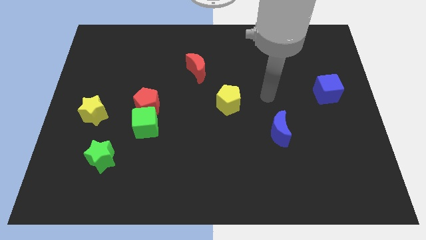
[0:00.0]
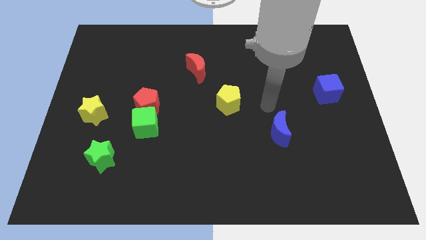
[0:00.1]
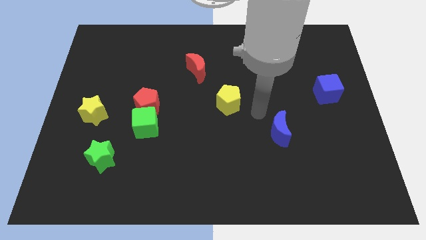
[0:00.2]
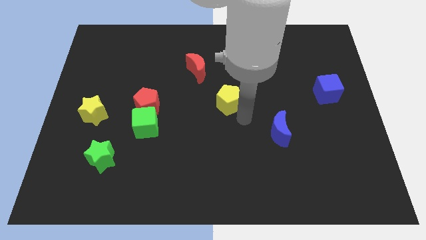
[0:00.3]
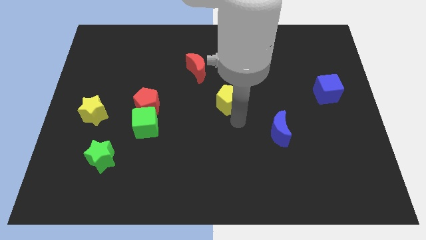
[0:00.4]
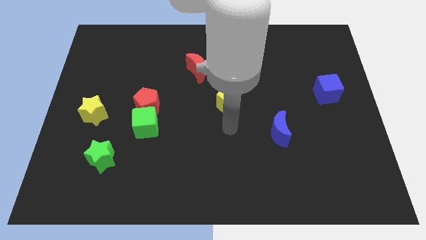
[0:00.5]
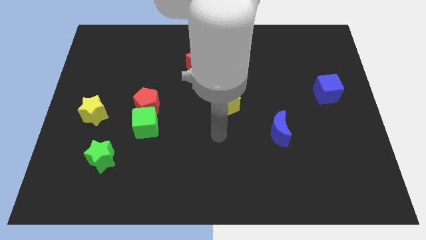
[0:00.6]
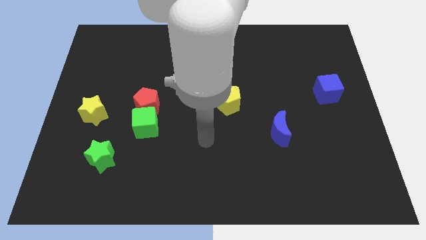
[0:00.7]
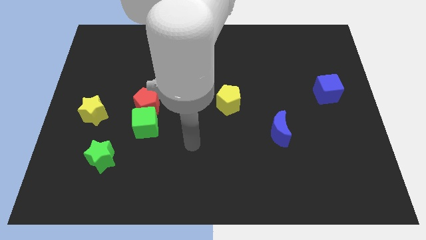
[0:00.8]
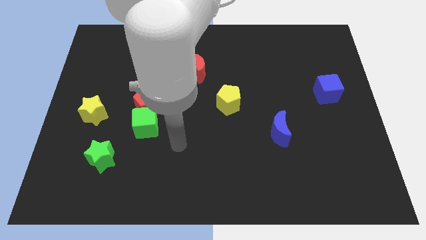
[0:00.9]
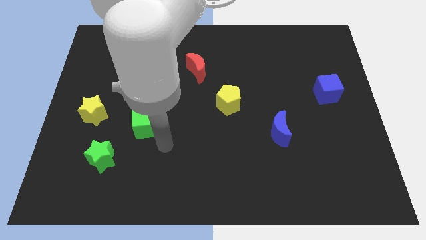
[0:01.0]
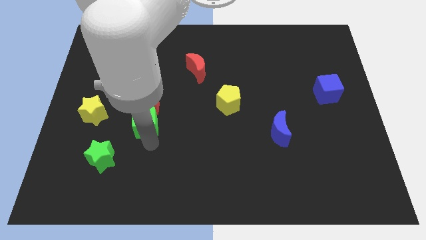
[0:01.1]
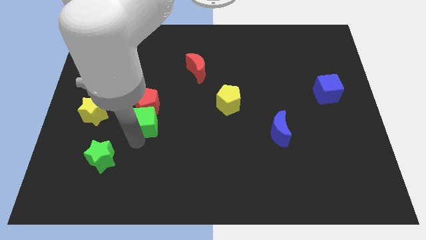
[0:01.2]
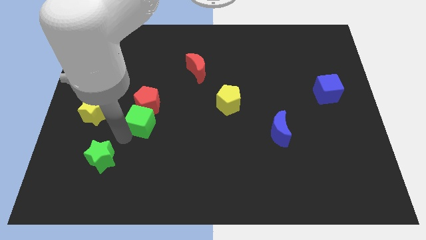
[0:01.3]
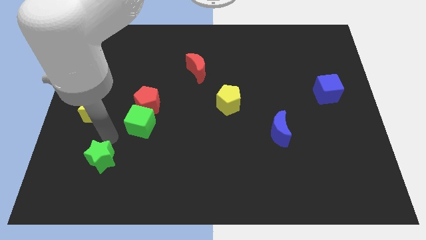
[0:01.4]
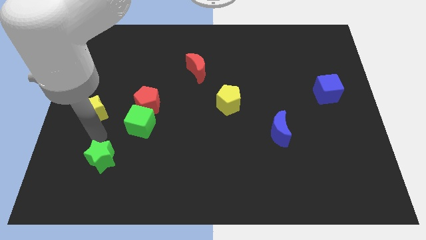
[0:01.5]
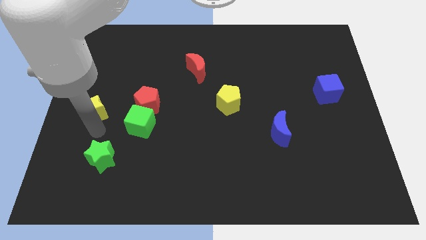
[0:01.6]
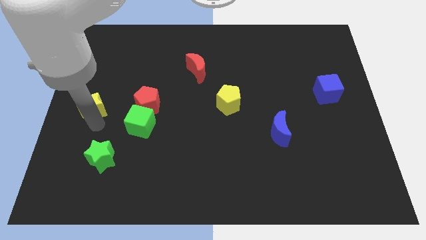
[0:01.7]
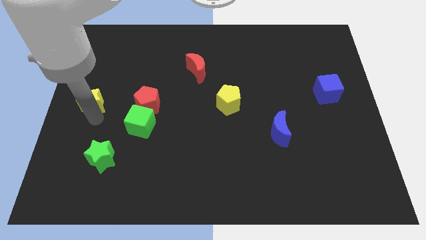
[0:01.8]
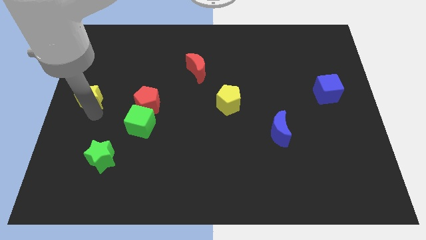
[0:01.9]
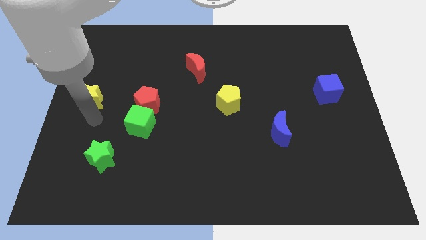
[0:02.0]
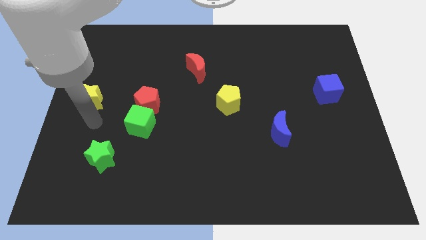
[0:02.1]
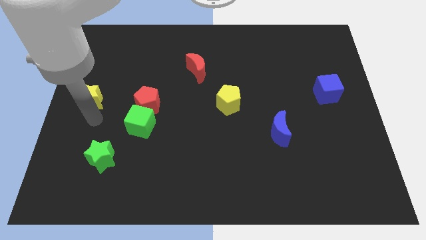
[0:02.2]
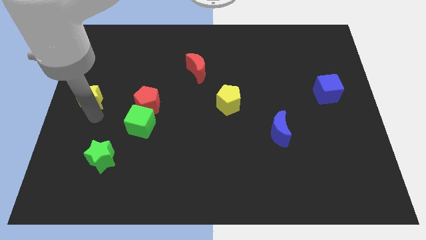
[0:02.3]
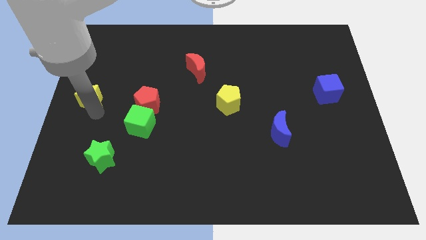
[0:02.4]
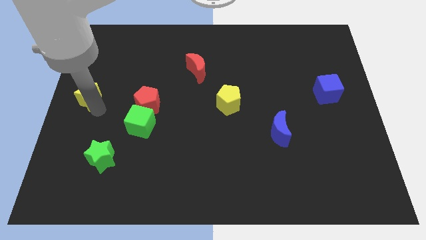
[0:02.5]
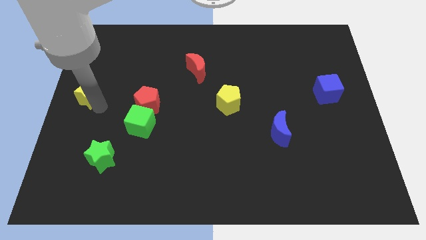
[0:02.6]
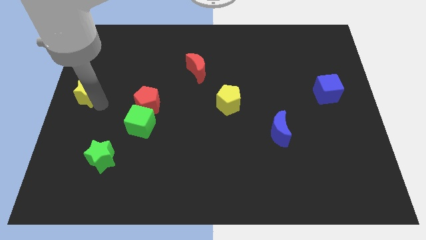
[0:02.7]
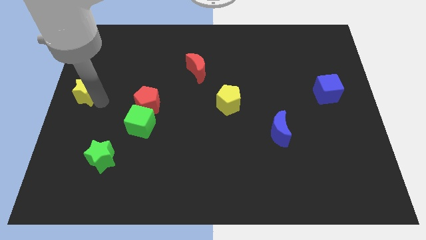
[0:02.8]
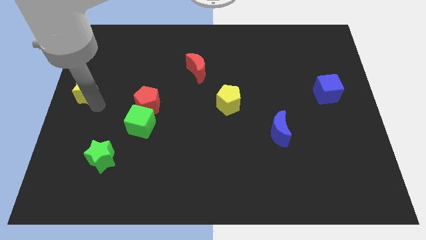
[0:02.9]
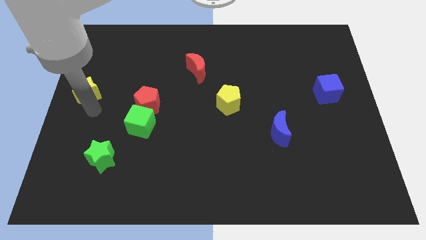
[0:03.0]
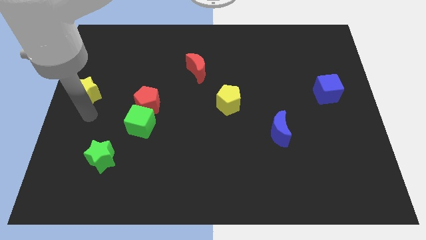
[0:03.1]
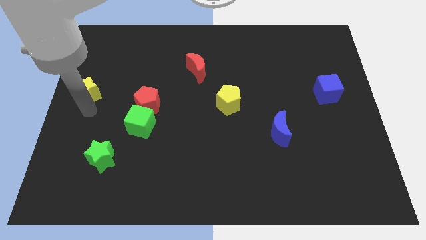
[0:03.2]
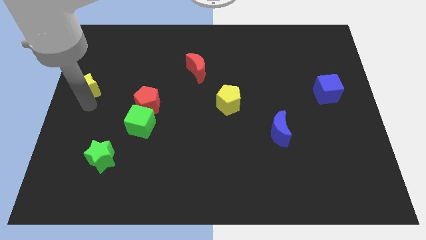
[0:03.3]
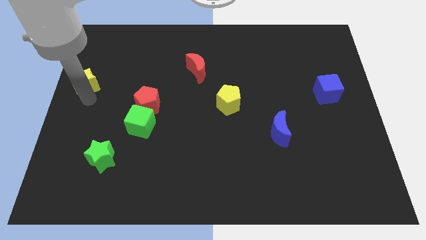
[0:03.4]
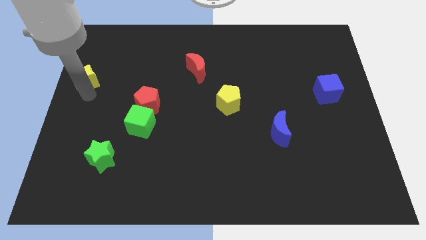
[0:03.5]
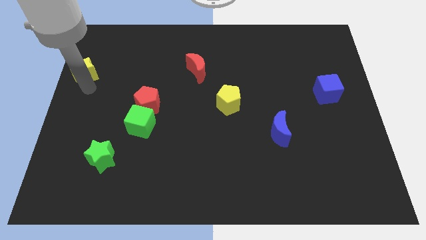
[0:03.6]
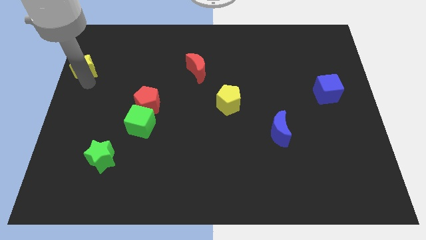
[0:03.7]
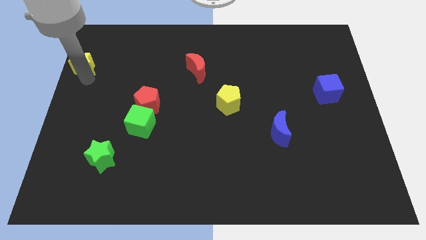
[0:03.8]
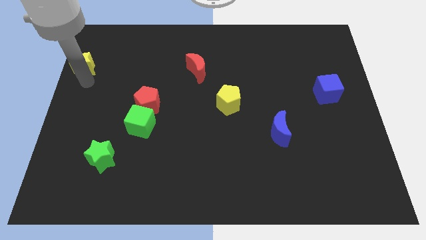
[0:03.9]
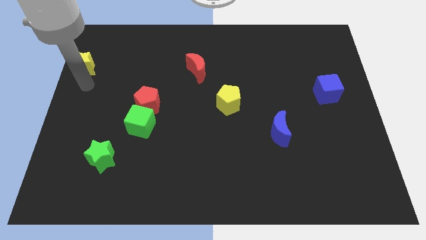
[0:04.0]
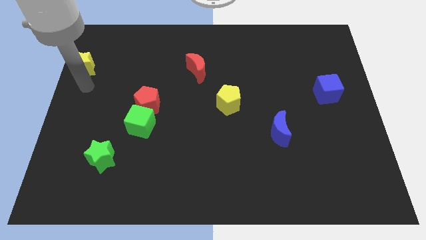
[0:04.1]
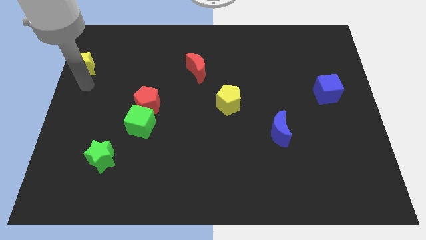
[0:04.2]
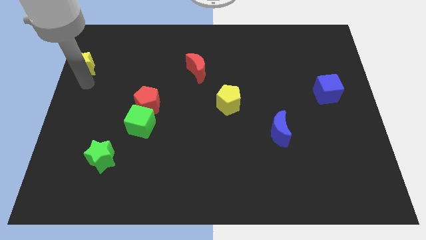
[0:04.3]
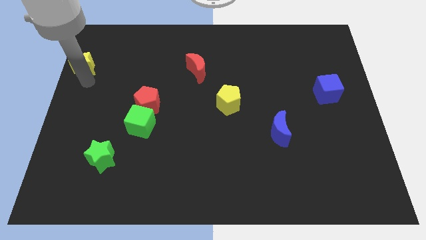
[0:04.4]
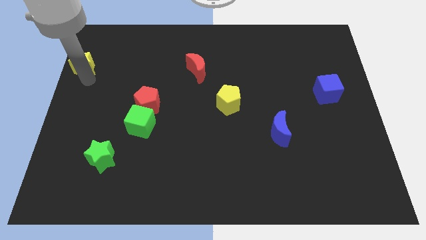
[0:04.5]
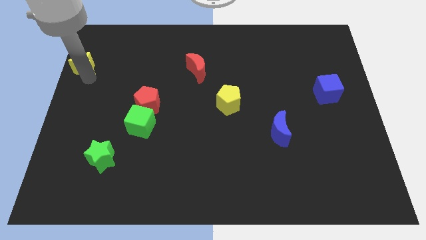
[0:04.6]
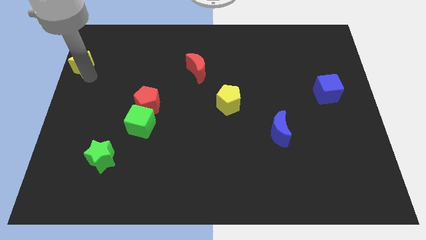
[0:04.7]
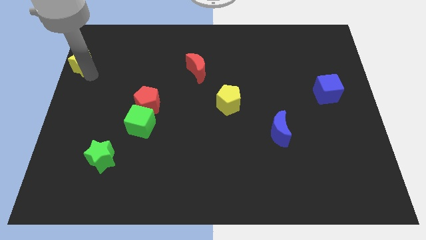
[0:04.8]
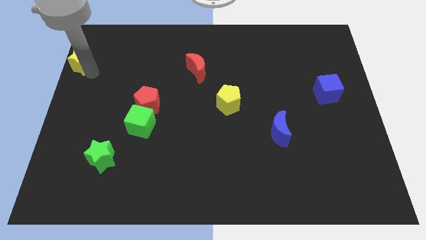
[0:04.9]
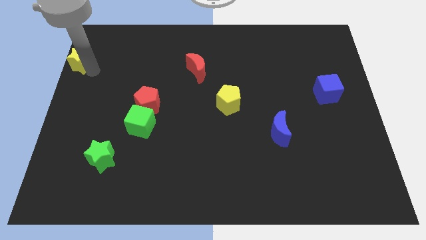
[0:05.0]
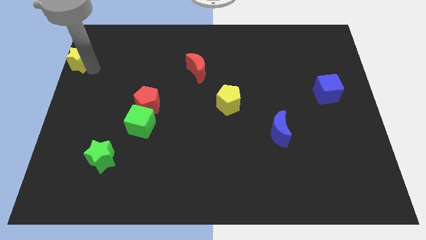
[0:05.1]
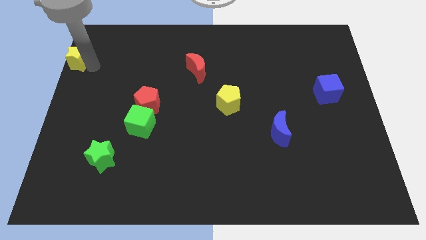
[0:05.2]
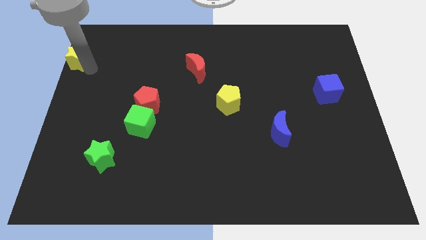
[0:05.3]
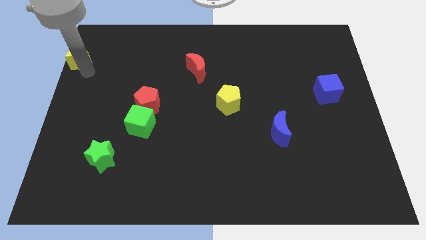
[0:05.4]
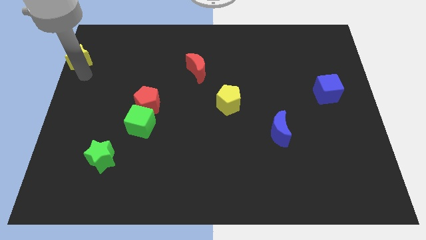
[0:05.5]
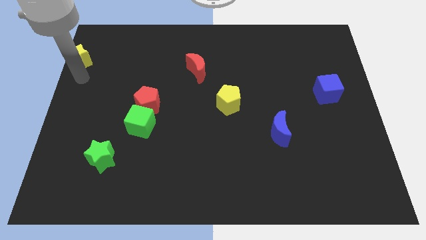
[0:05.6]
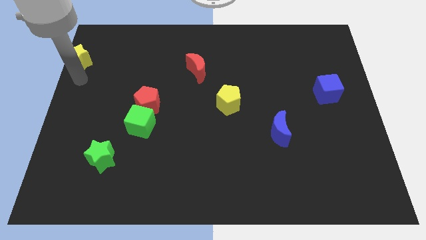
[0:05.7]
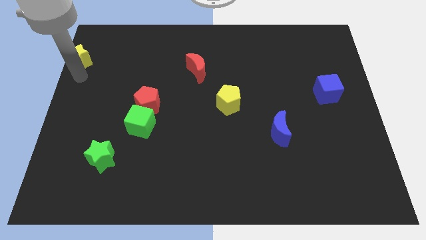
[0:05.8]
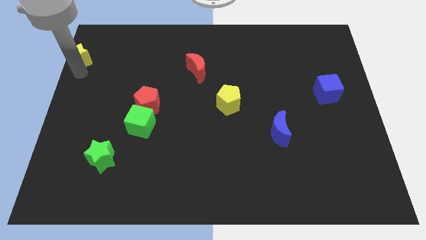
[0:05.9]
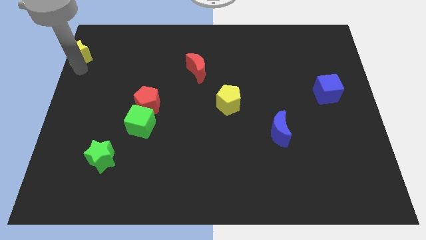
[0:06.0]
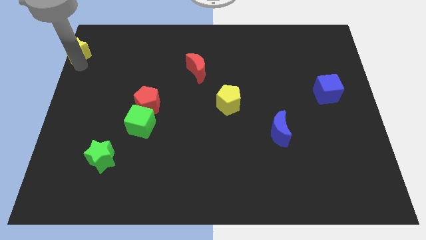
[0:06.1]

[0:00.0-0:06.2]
put the yellow star to the top left

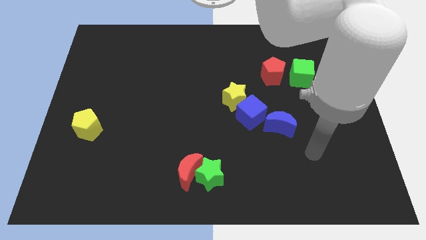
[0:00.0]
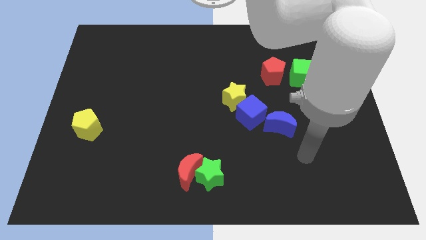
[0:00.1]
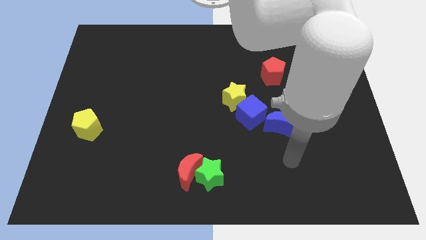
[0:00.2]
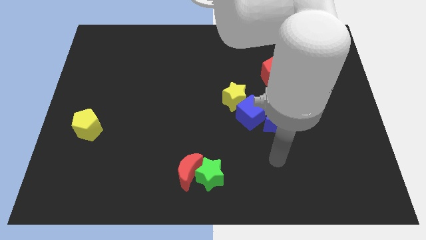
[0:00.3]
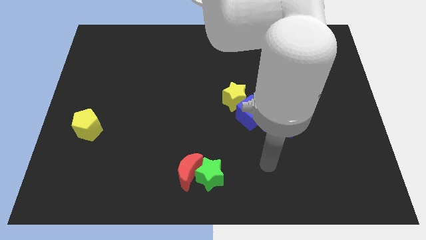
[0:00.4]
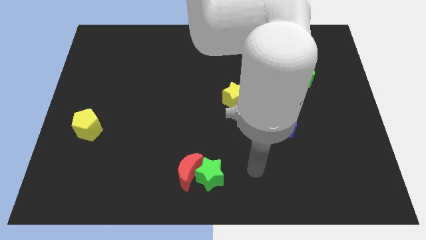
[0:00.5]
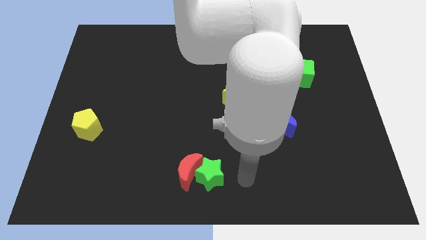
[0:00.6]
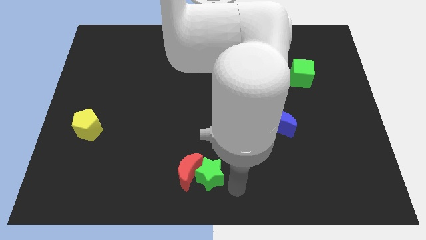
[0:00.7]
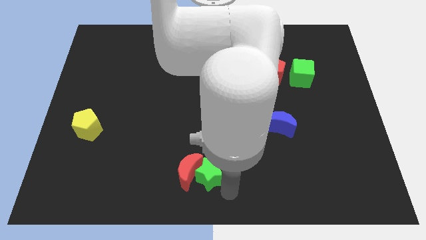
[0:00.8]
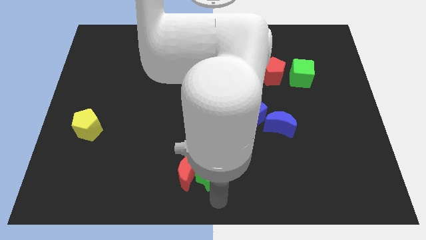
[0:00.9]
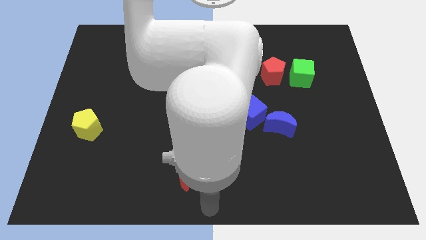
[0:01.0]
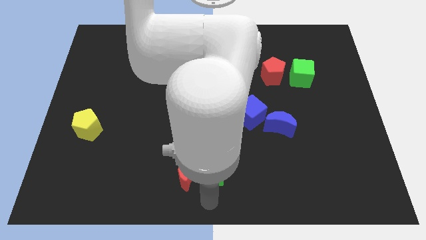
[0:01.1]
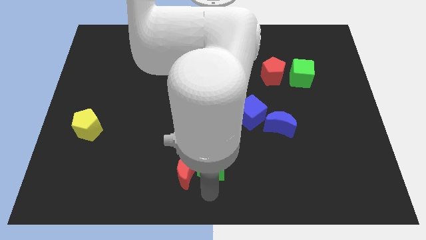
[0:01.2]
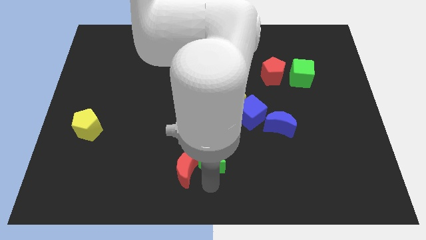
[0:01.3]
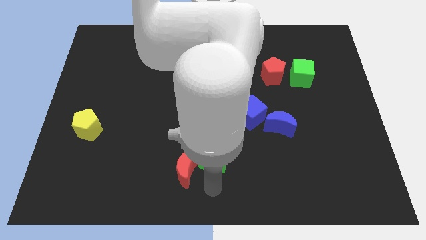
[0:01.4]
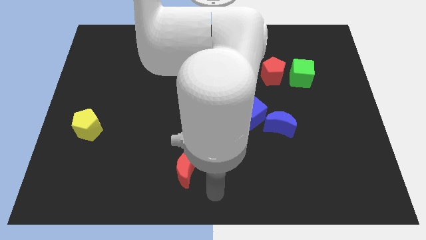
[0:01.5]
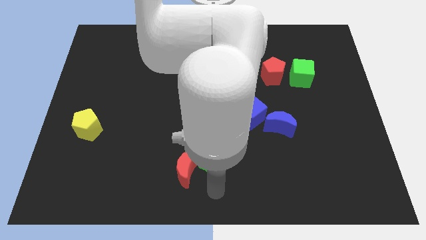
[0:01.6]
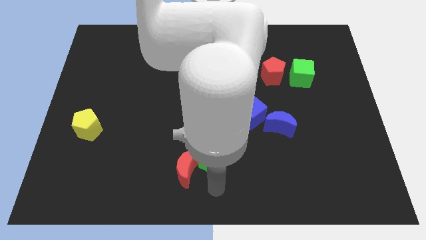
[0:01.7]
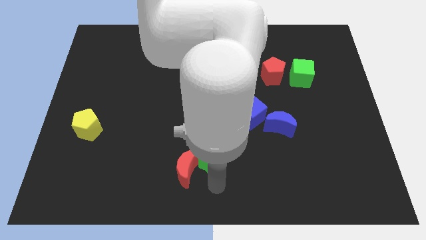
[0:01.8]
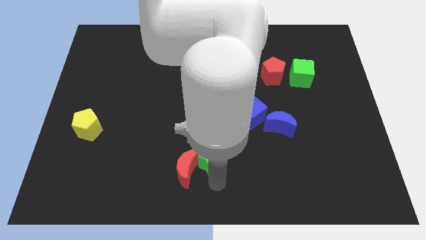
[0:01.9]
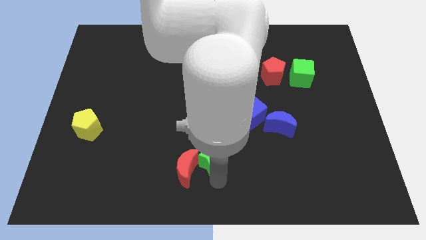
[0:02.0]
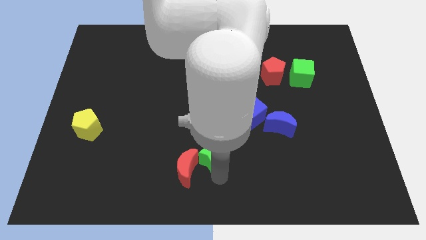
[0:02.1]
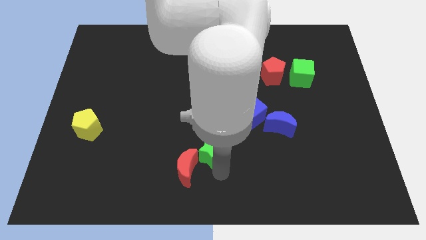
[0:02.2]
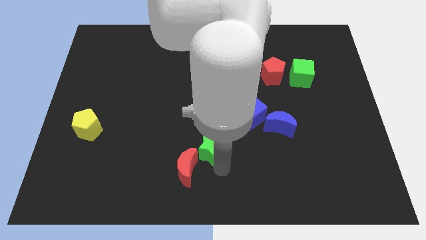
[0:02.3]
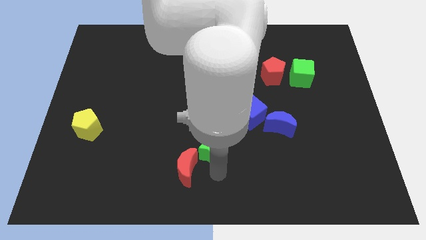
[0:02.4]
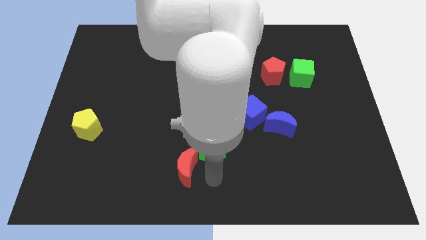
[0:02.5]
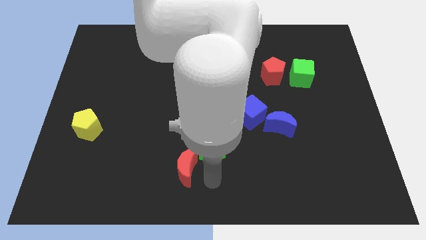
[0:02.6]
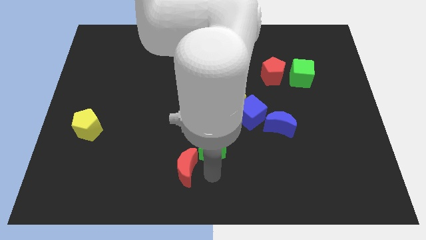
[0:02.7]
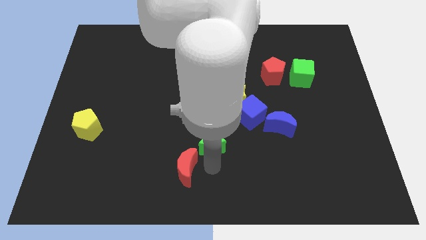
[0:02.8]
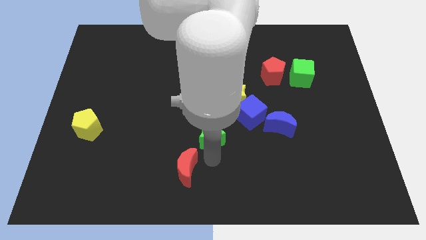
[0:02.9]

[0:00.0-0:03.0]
slide the green star to the middle
